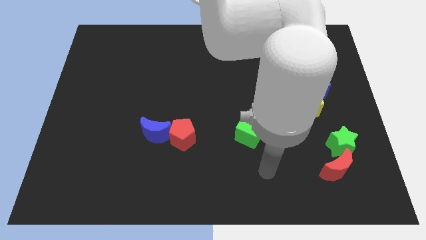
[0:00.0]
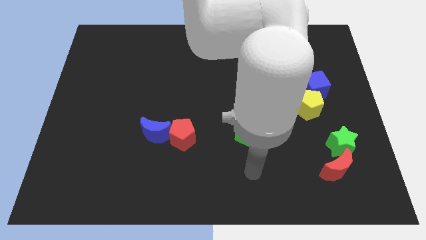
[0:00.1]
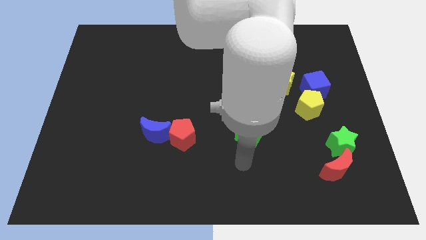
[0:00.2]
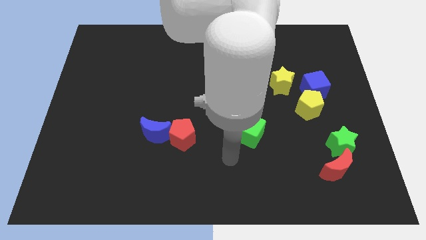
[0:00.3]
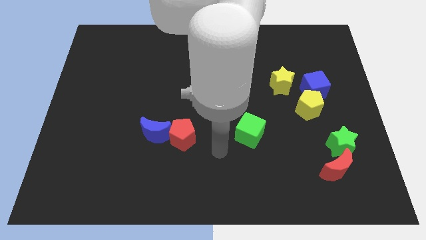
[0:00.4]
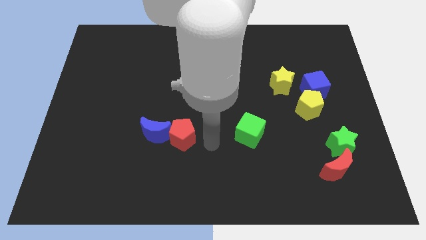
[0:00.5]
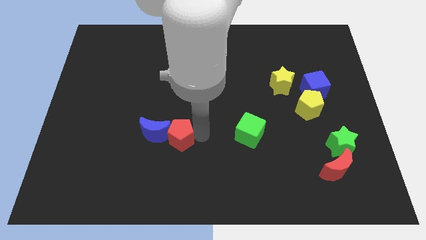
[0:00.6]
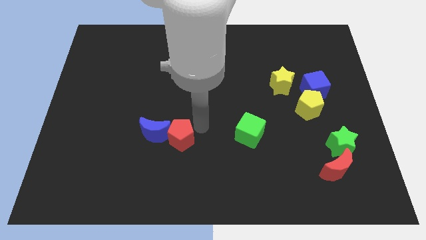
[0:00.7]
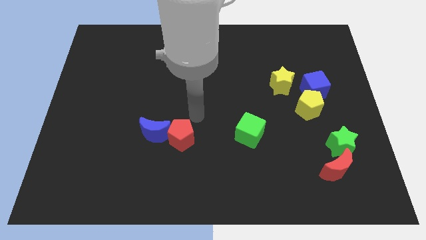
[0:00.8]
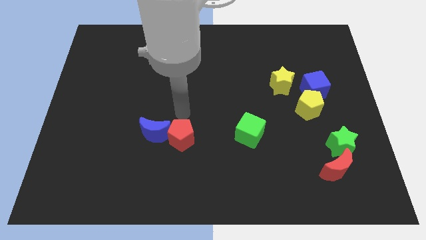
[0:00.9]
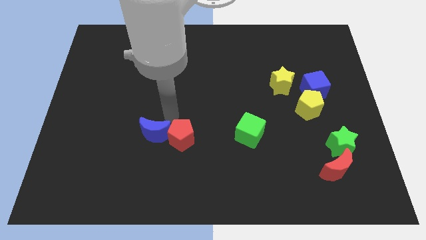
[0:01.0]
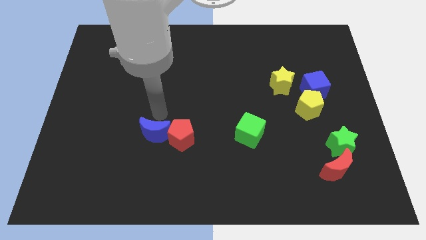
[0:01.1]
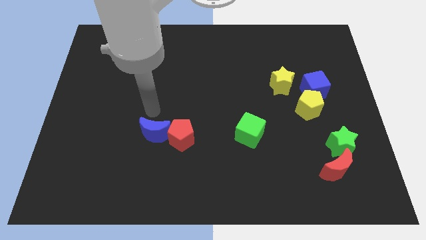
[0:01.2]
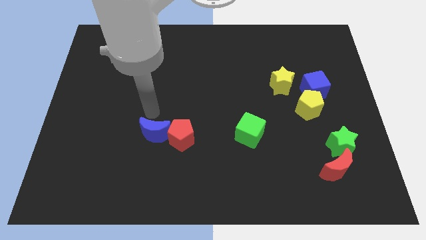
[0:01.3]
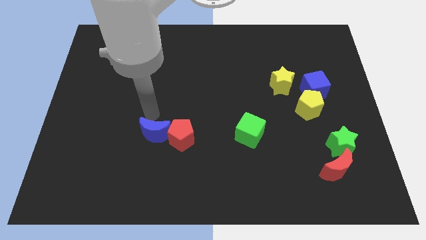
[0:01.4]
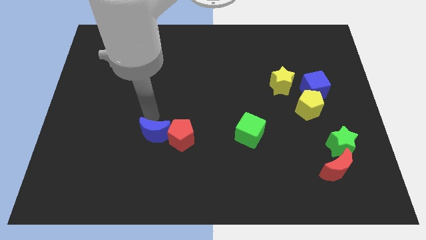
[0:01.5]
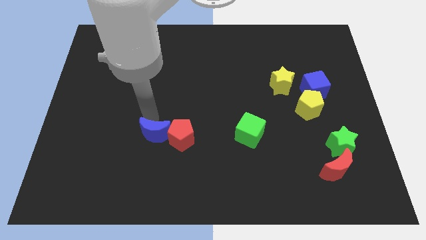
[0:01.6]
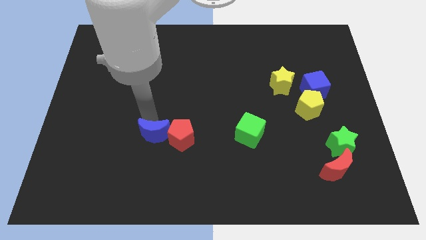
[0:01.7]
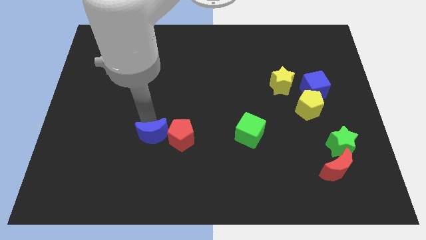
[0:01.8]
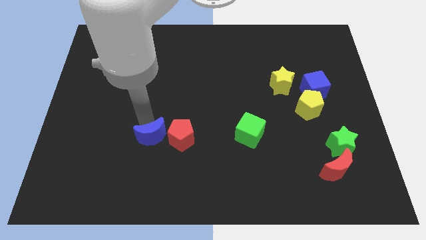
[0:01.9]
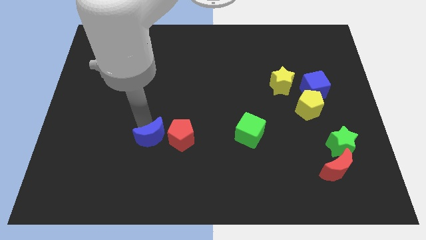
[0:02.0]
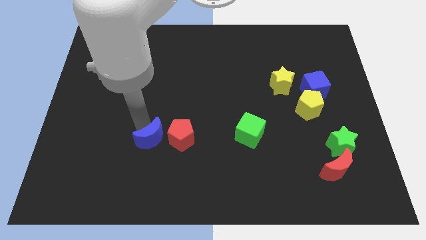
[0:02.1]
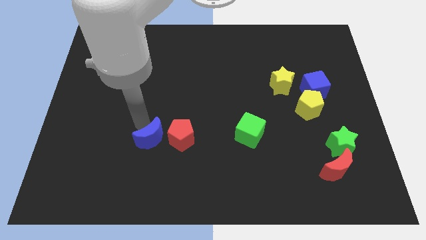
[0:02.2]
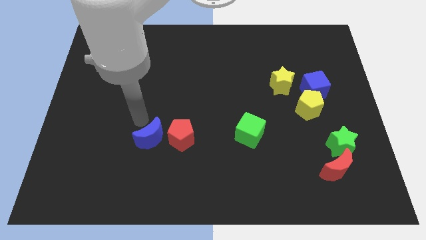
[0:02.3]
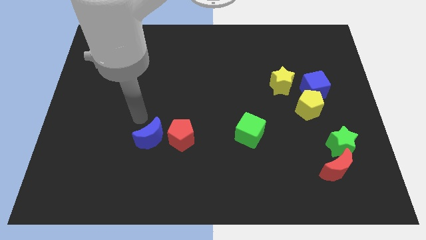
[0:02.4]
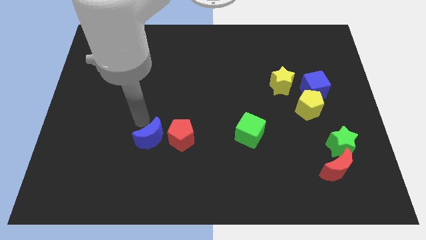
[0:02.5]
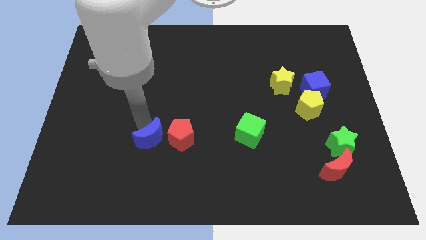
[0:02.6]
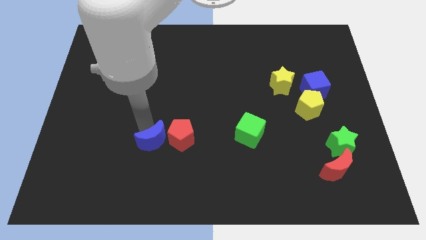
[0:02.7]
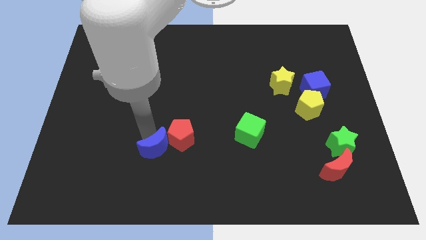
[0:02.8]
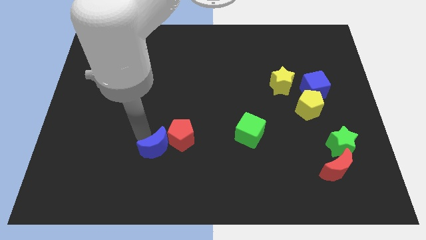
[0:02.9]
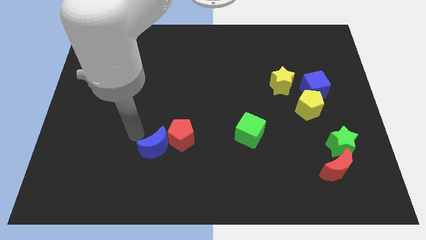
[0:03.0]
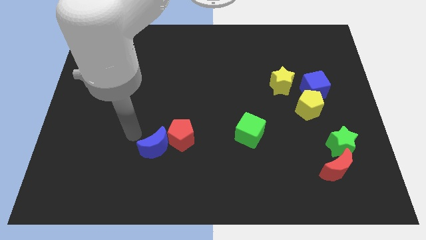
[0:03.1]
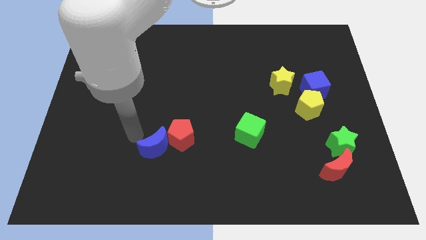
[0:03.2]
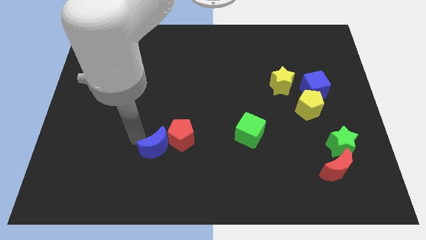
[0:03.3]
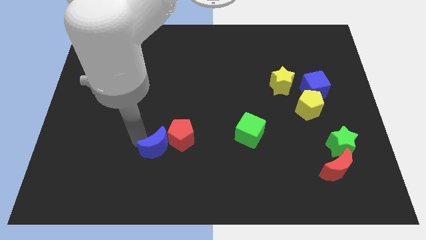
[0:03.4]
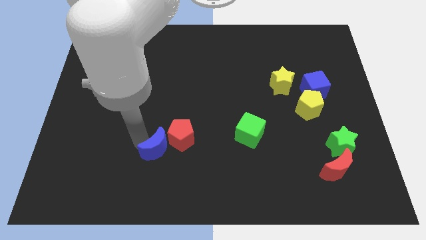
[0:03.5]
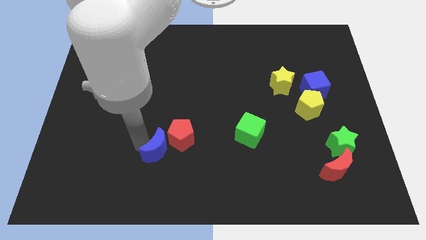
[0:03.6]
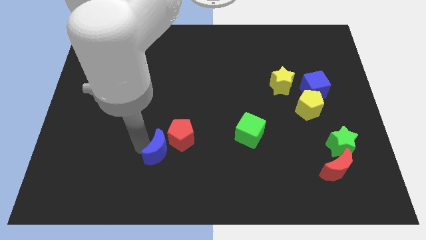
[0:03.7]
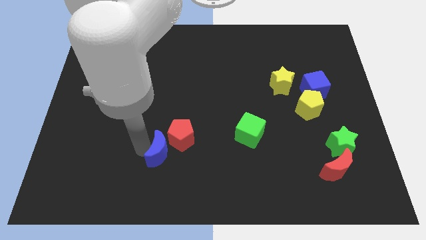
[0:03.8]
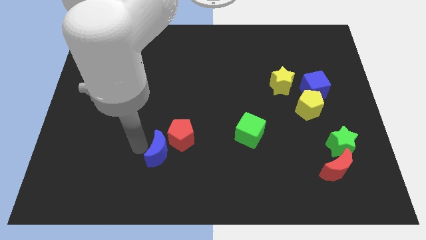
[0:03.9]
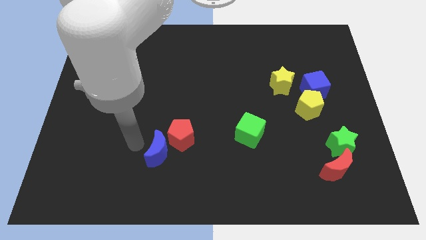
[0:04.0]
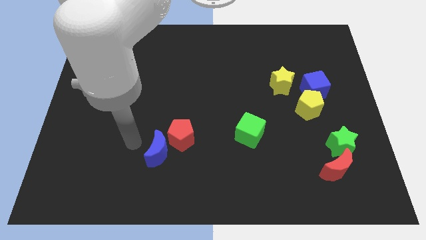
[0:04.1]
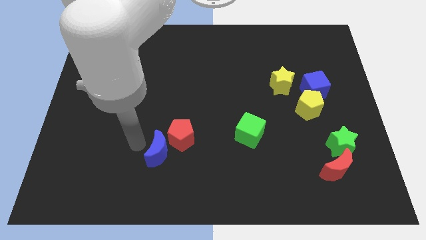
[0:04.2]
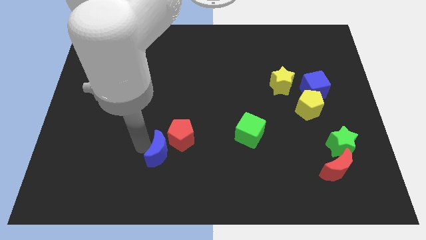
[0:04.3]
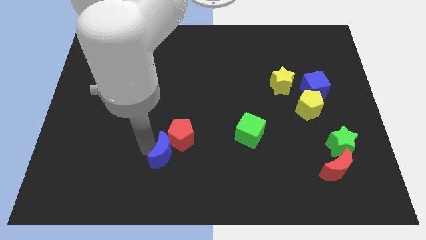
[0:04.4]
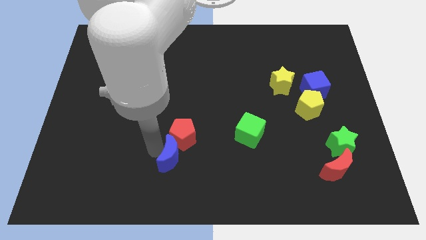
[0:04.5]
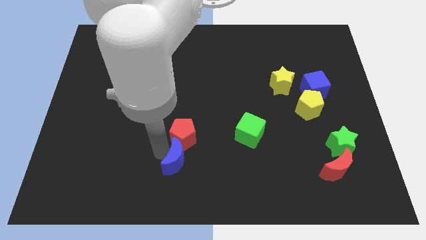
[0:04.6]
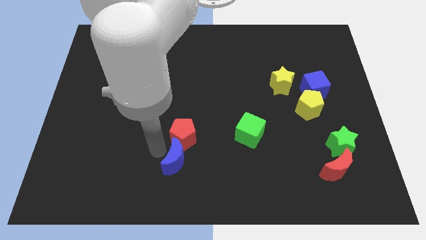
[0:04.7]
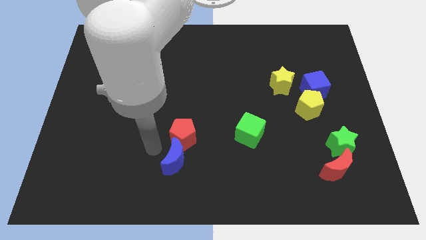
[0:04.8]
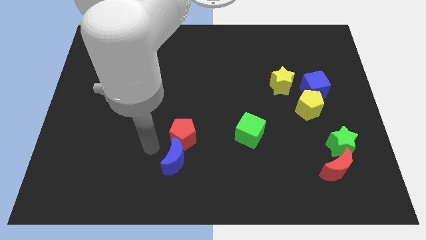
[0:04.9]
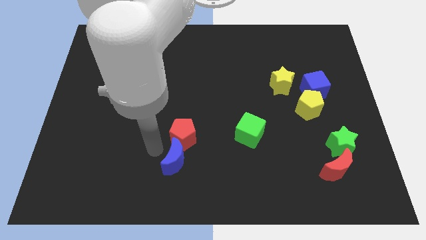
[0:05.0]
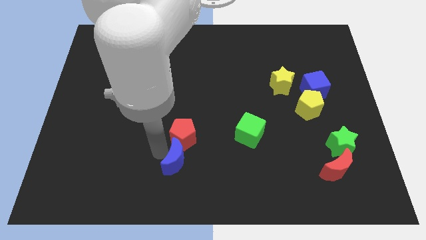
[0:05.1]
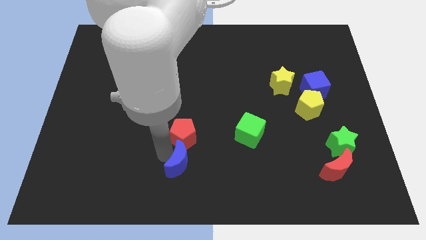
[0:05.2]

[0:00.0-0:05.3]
move the blue moon to the bottom

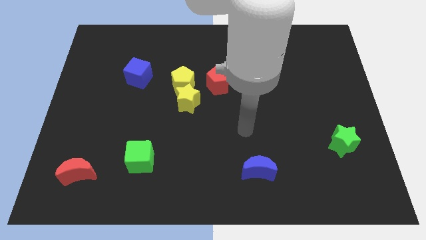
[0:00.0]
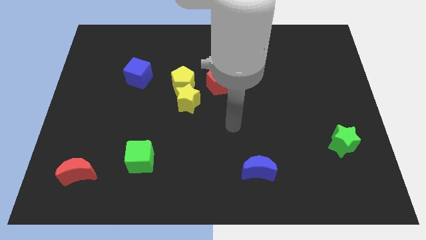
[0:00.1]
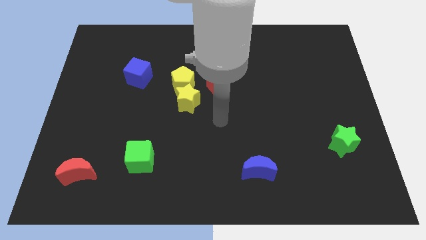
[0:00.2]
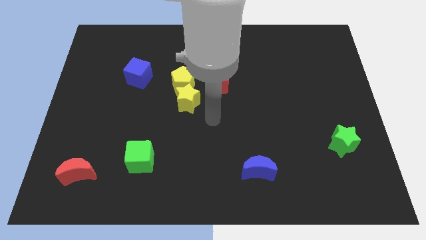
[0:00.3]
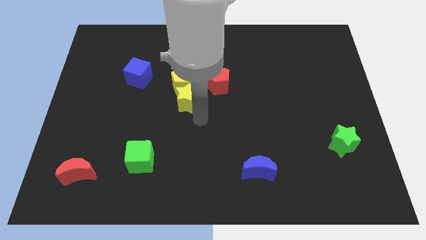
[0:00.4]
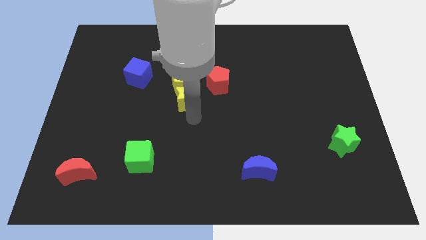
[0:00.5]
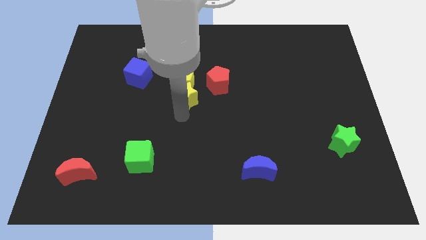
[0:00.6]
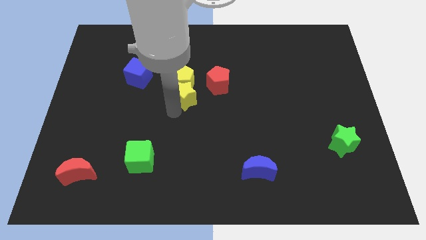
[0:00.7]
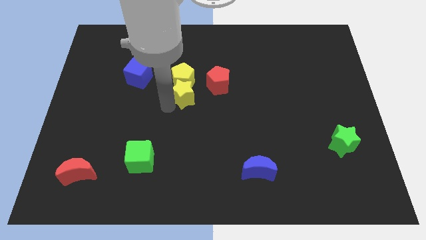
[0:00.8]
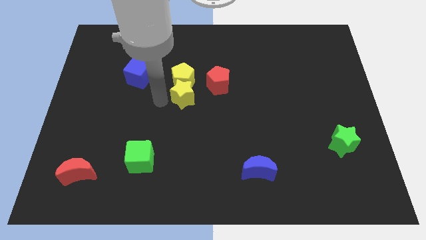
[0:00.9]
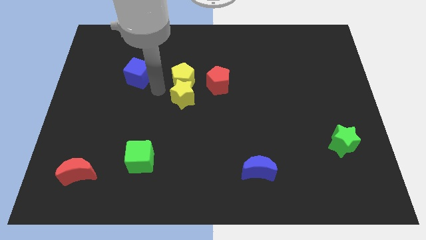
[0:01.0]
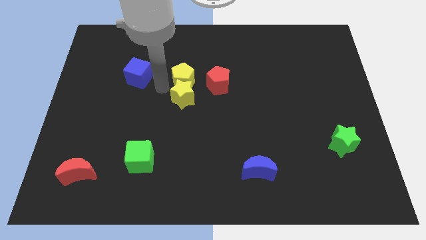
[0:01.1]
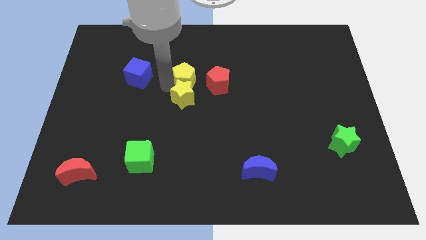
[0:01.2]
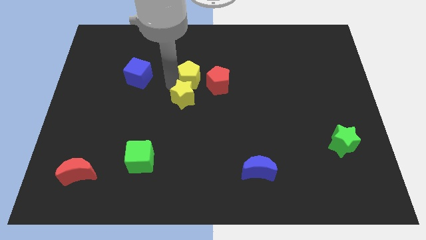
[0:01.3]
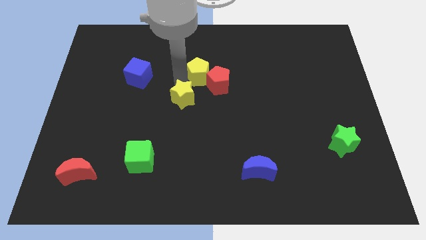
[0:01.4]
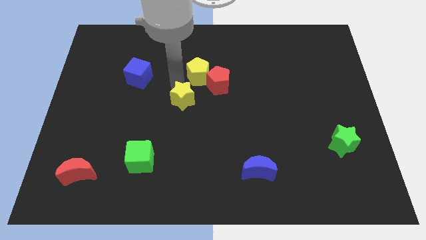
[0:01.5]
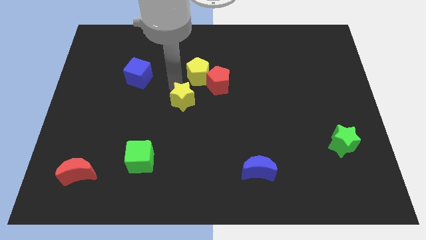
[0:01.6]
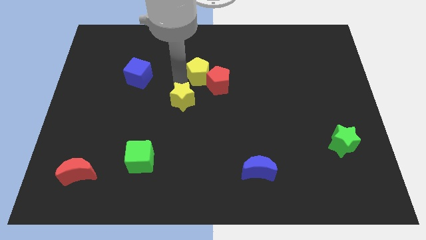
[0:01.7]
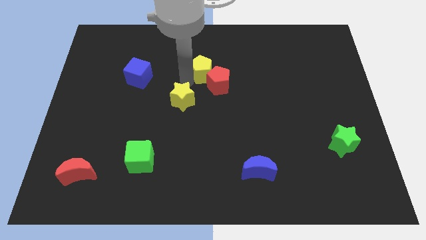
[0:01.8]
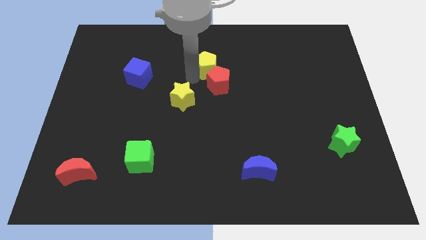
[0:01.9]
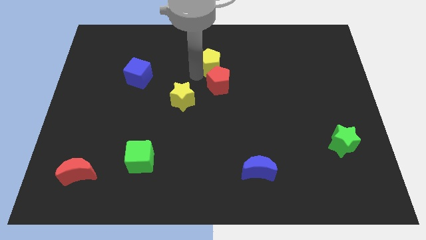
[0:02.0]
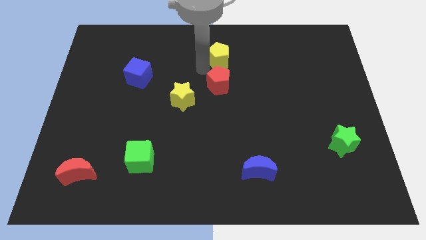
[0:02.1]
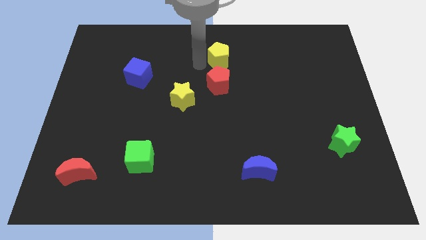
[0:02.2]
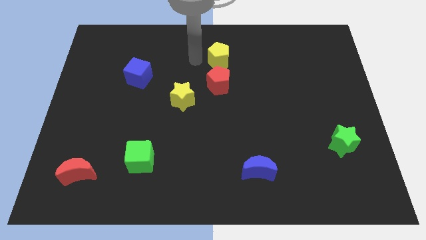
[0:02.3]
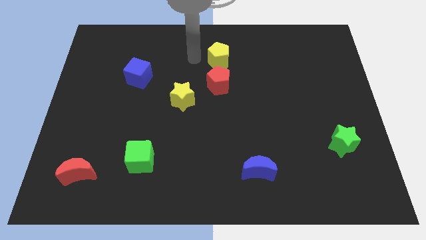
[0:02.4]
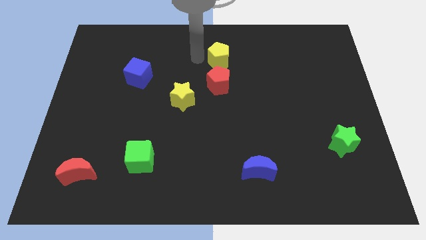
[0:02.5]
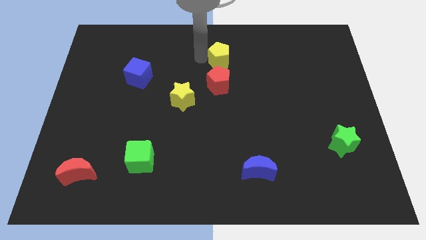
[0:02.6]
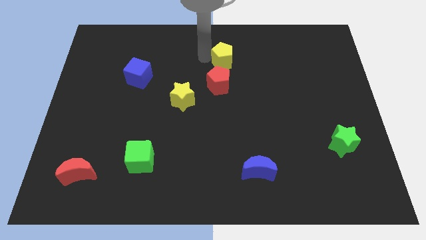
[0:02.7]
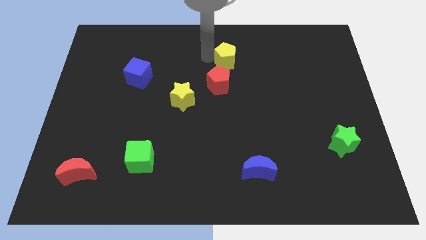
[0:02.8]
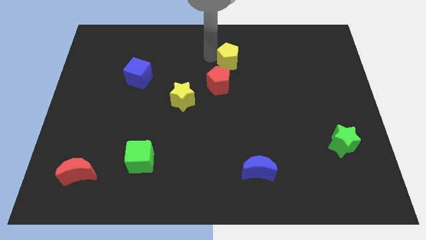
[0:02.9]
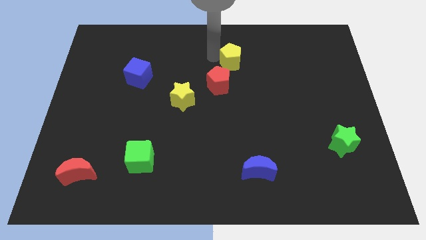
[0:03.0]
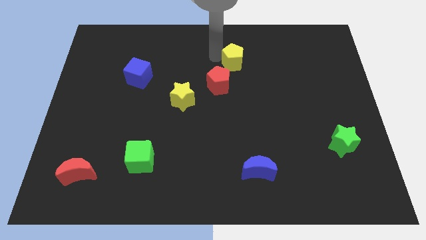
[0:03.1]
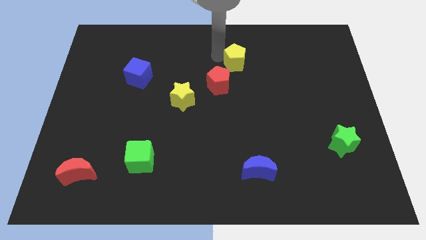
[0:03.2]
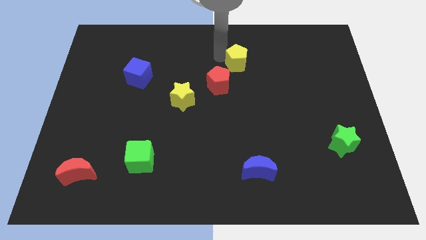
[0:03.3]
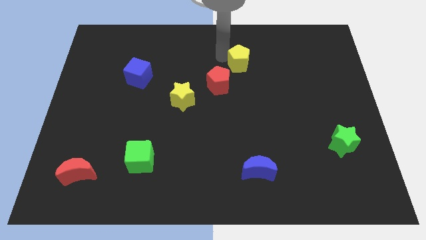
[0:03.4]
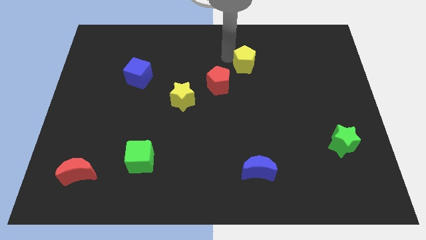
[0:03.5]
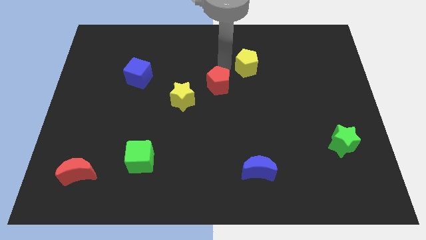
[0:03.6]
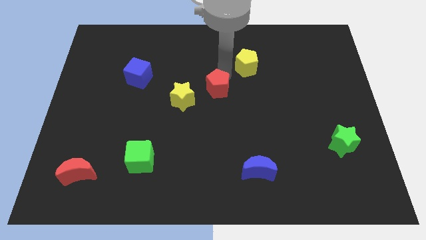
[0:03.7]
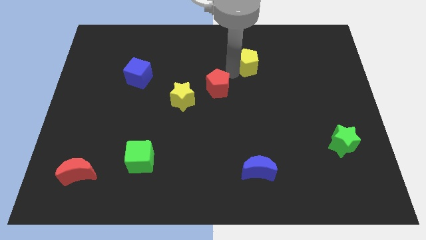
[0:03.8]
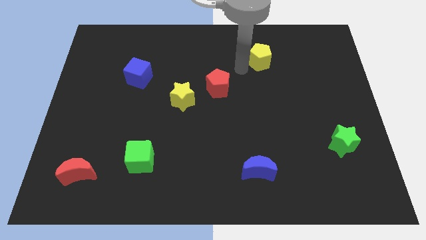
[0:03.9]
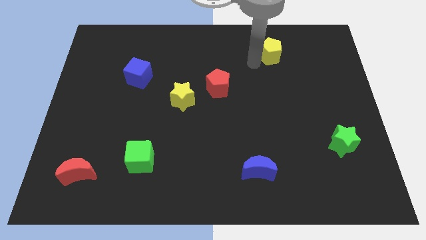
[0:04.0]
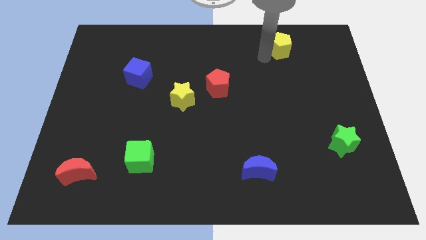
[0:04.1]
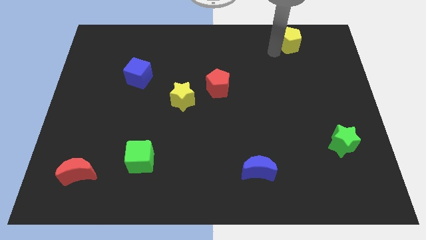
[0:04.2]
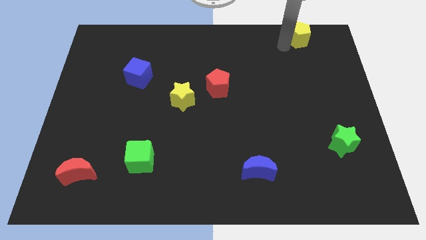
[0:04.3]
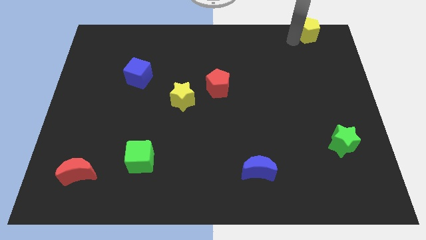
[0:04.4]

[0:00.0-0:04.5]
push the yellow pentagon to the upper right corner
